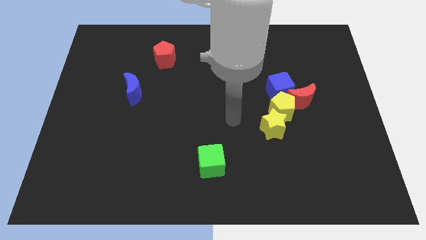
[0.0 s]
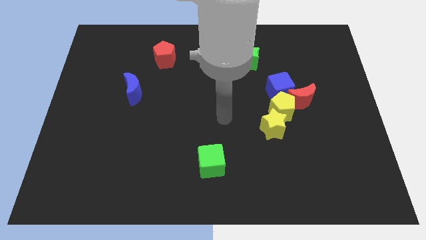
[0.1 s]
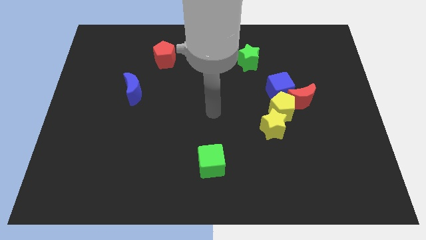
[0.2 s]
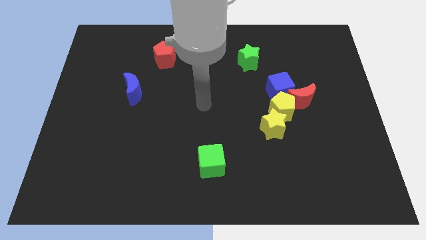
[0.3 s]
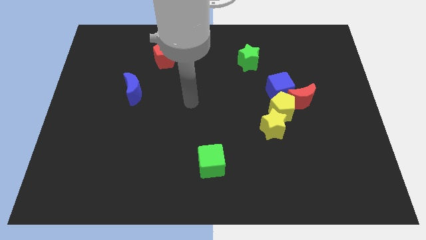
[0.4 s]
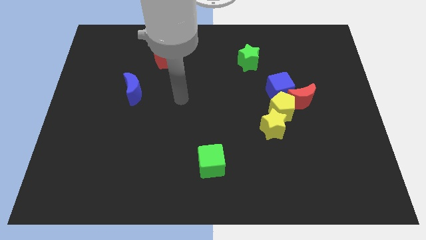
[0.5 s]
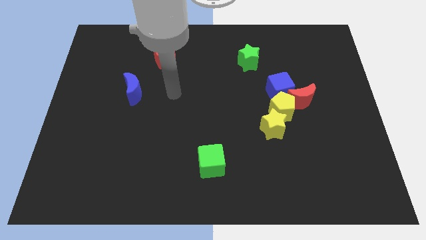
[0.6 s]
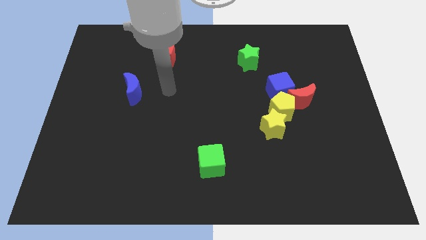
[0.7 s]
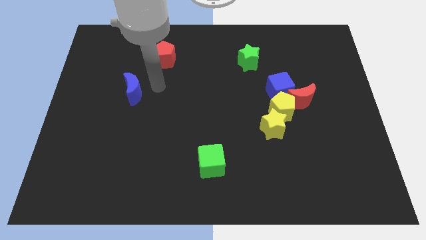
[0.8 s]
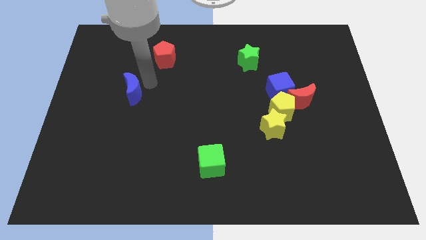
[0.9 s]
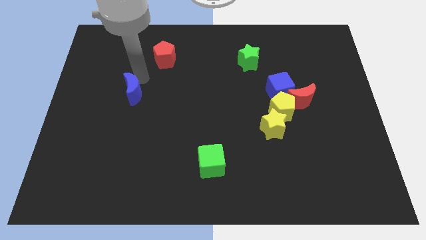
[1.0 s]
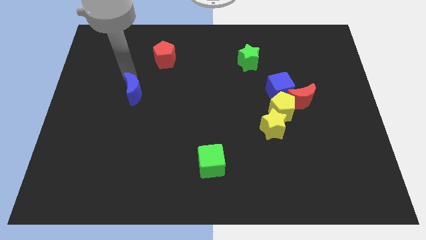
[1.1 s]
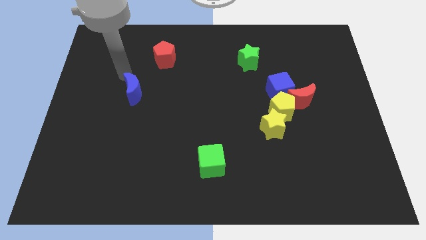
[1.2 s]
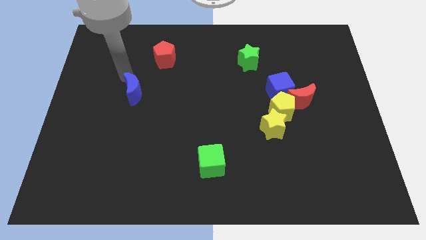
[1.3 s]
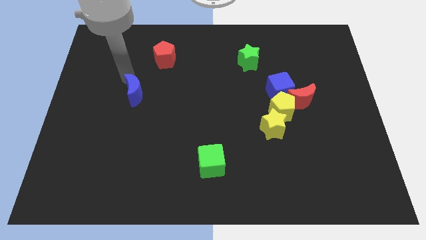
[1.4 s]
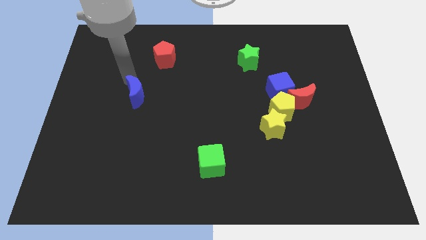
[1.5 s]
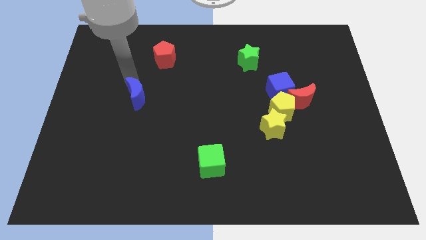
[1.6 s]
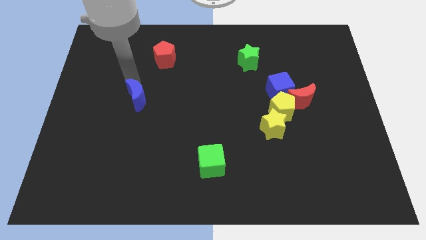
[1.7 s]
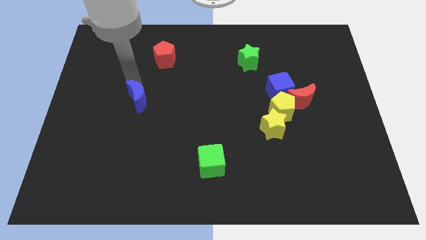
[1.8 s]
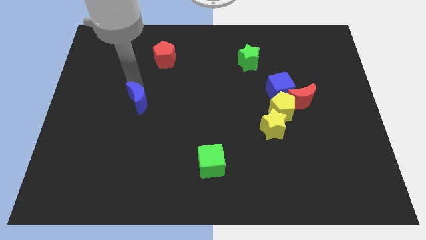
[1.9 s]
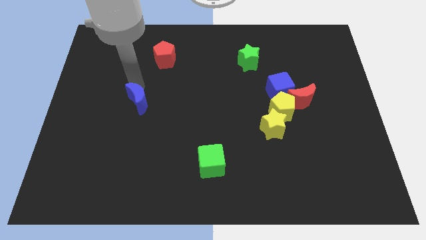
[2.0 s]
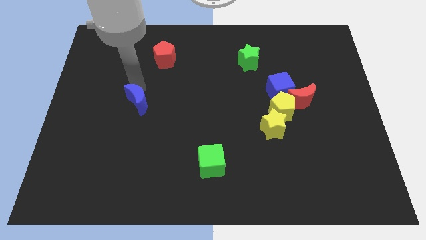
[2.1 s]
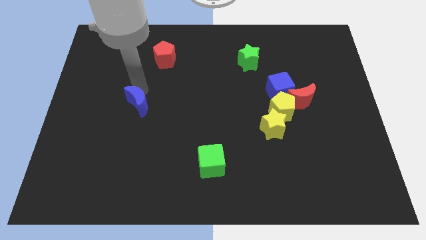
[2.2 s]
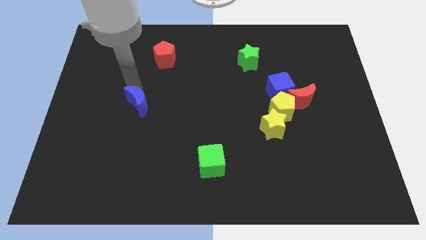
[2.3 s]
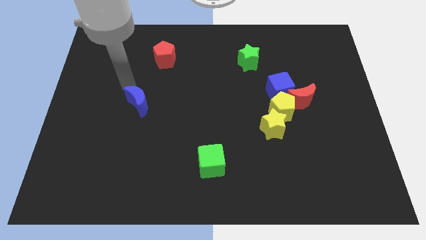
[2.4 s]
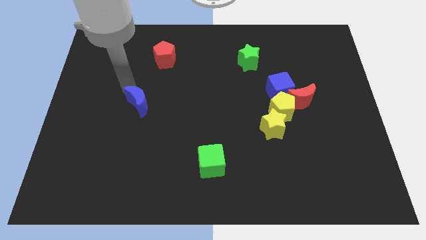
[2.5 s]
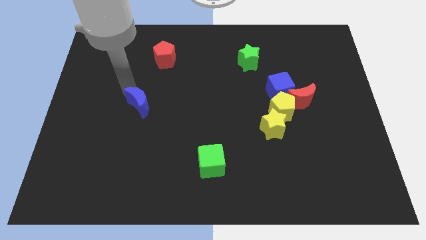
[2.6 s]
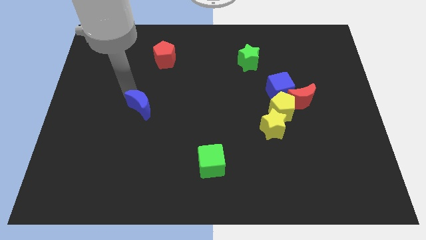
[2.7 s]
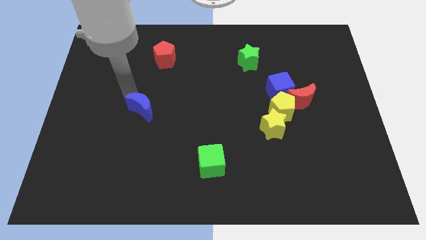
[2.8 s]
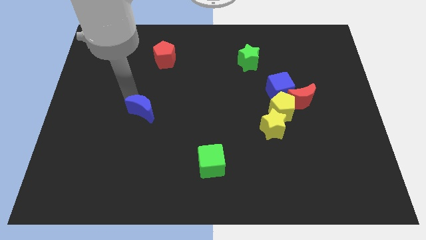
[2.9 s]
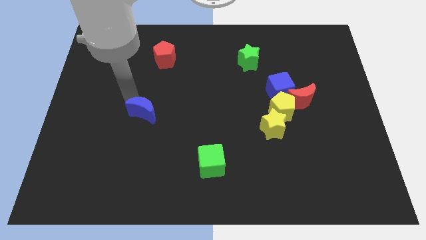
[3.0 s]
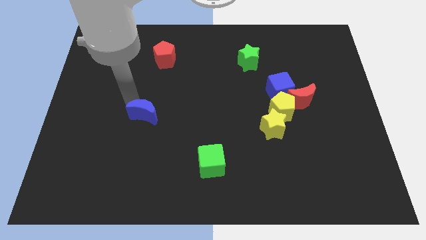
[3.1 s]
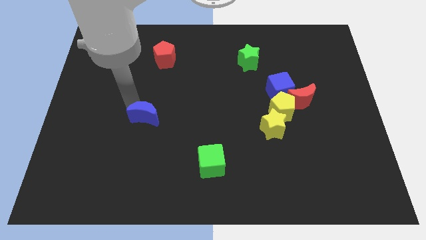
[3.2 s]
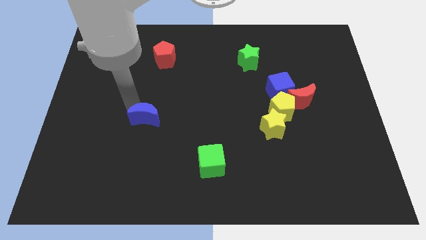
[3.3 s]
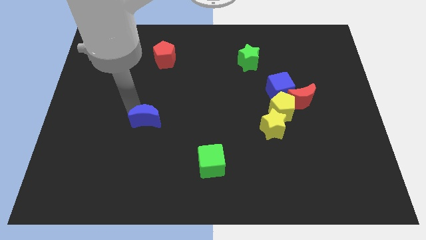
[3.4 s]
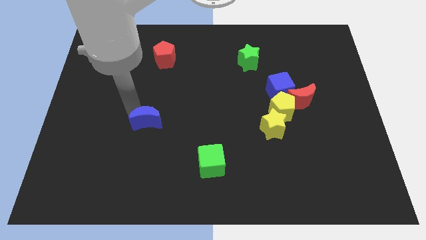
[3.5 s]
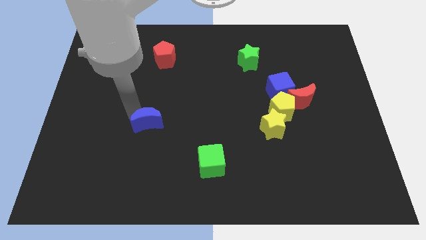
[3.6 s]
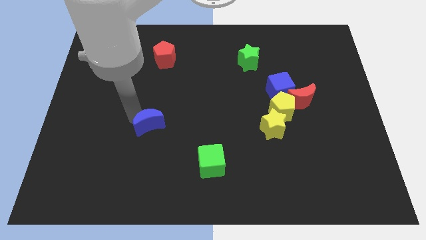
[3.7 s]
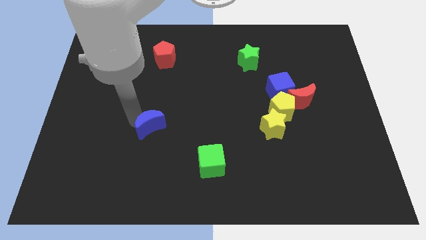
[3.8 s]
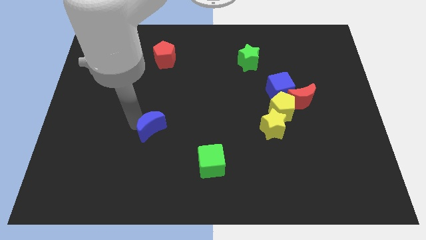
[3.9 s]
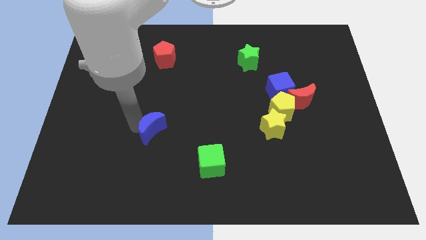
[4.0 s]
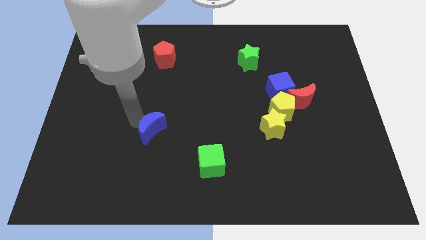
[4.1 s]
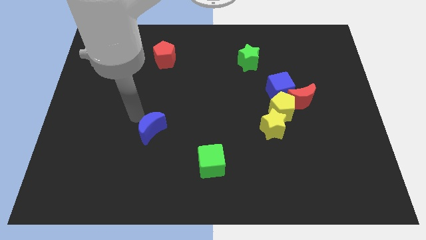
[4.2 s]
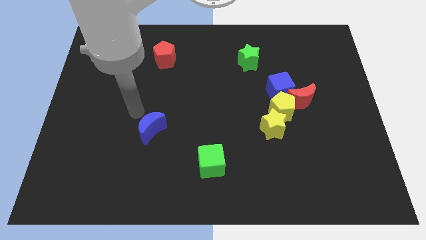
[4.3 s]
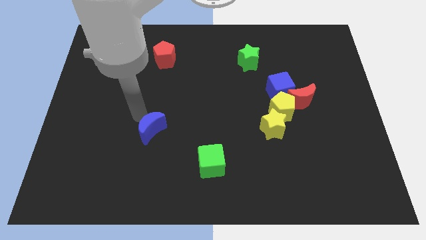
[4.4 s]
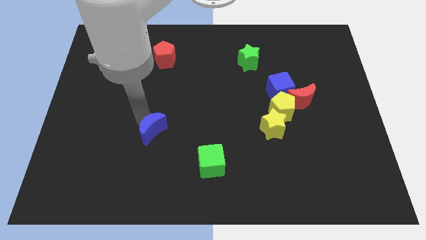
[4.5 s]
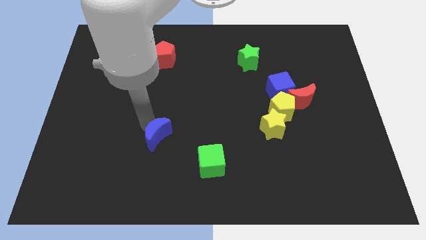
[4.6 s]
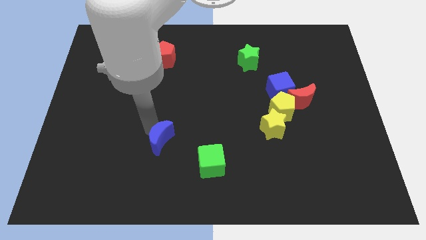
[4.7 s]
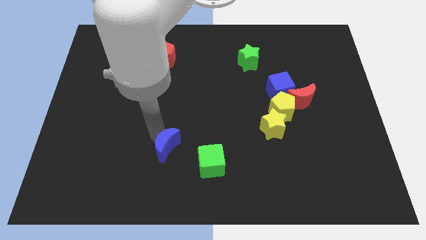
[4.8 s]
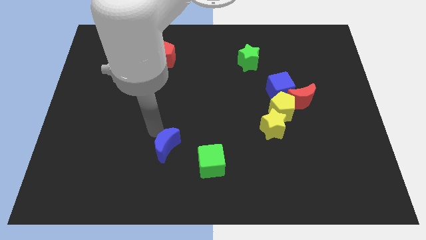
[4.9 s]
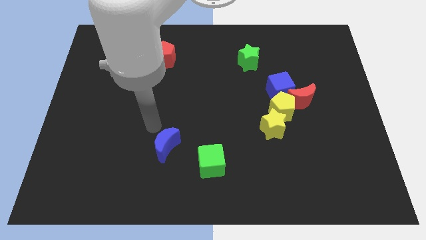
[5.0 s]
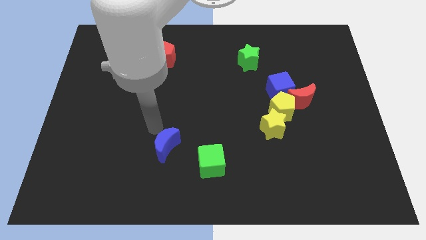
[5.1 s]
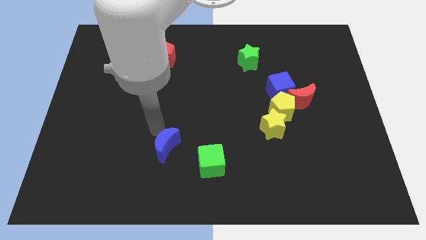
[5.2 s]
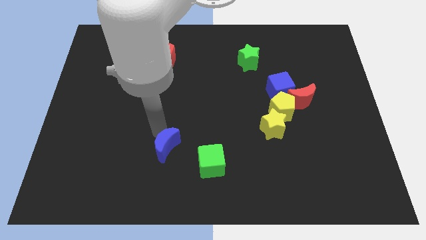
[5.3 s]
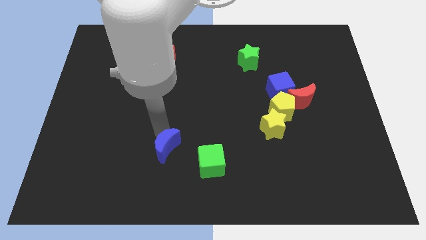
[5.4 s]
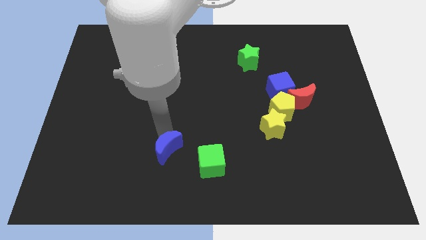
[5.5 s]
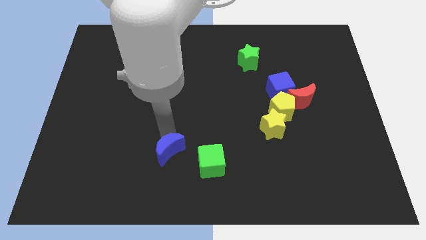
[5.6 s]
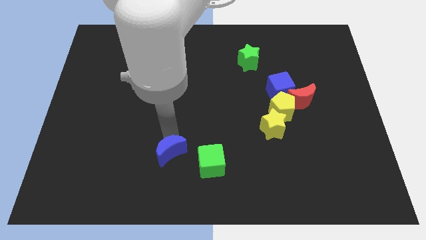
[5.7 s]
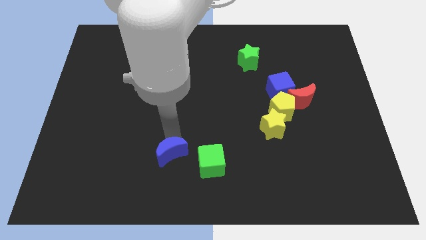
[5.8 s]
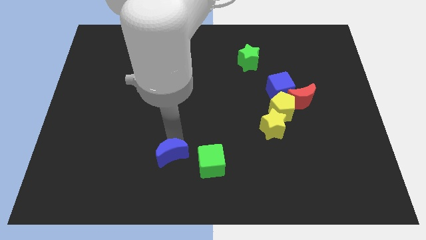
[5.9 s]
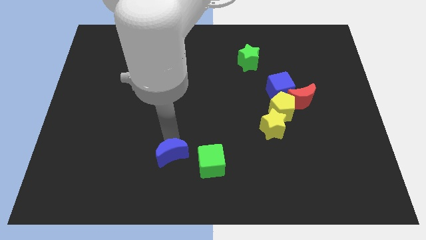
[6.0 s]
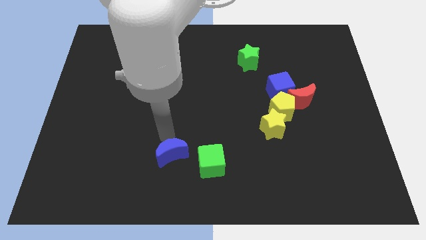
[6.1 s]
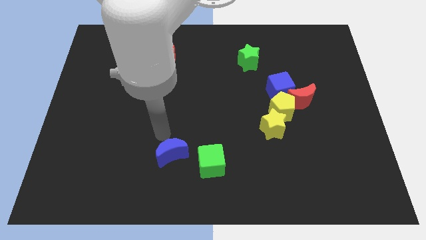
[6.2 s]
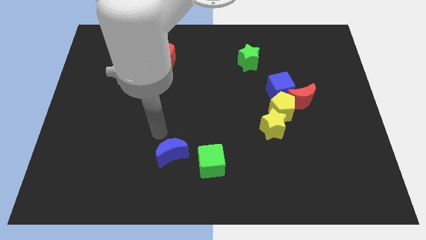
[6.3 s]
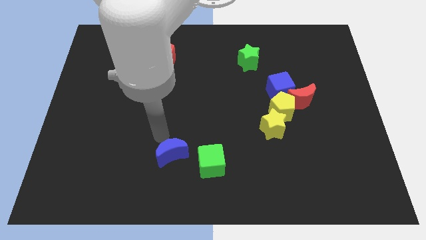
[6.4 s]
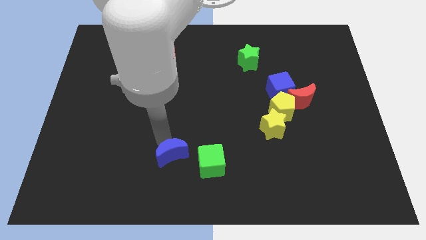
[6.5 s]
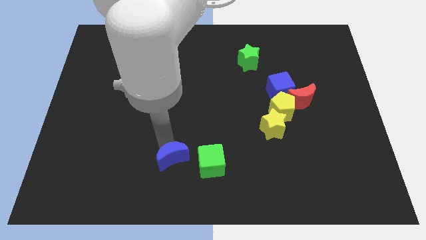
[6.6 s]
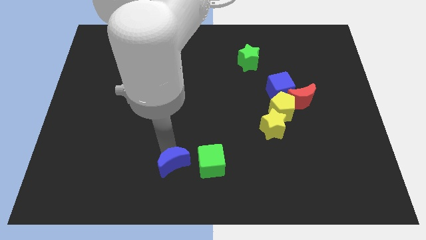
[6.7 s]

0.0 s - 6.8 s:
slide the blue moon to the bottom

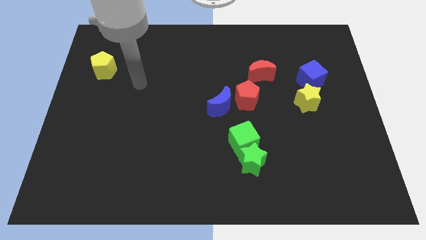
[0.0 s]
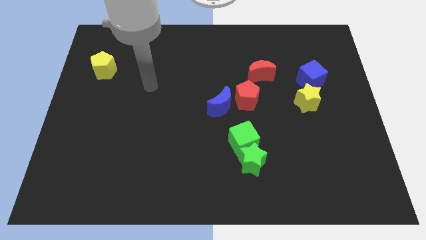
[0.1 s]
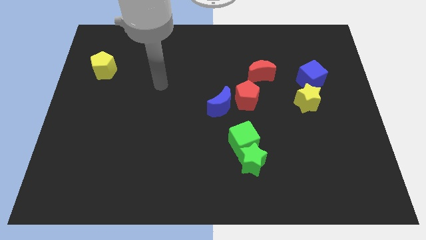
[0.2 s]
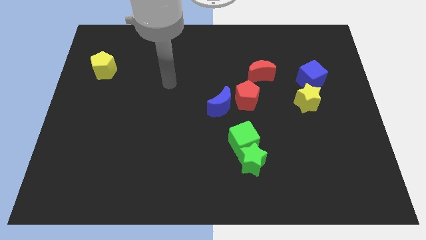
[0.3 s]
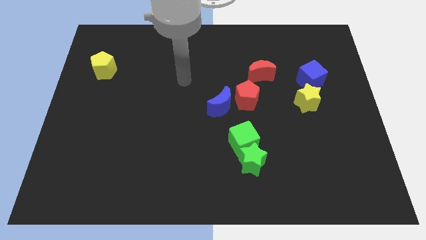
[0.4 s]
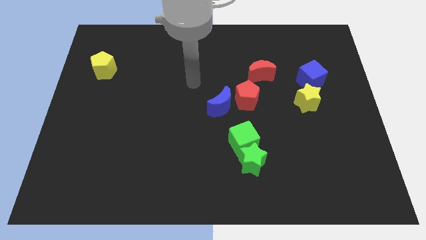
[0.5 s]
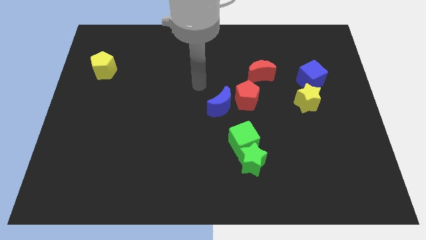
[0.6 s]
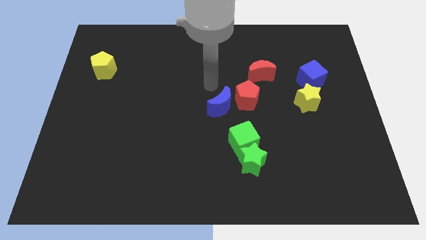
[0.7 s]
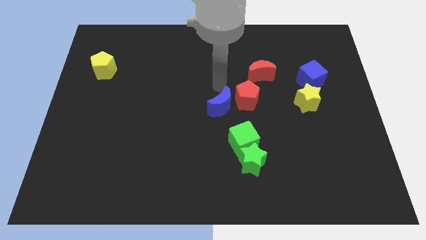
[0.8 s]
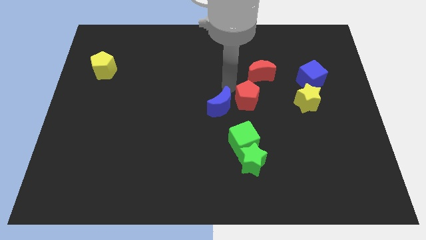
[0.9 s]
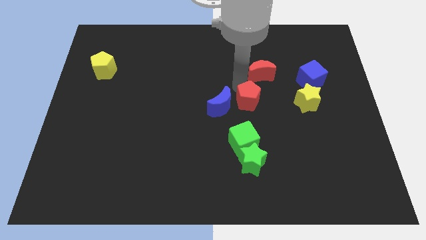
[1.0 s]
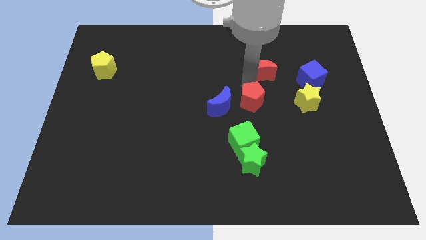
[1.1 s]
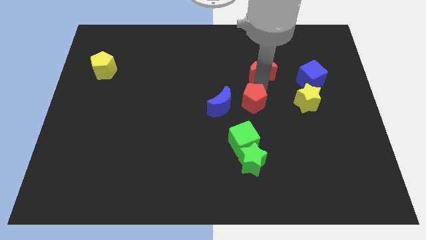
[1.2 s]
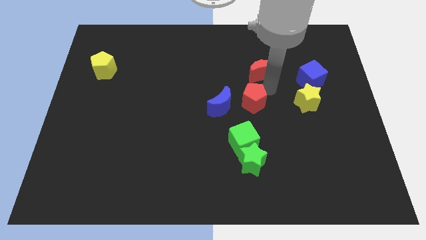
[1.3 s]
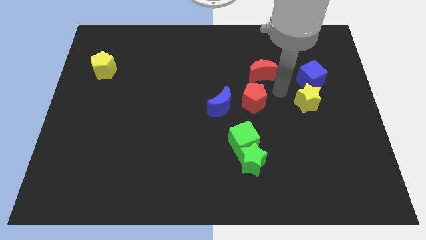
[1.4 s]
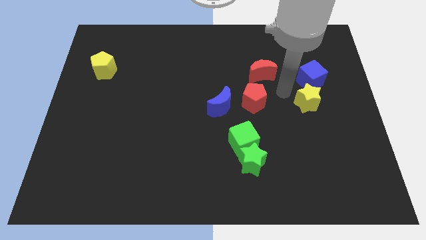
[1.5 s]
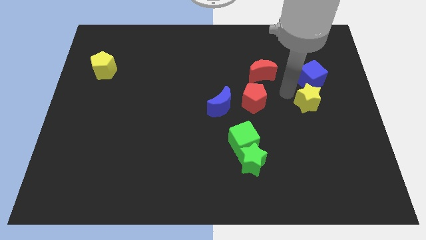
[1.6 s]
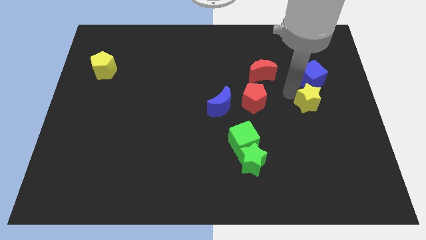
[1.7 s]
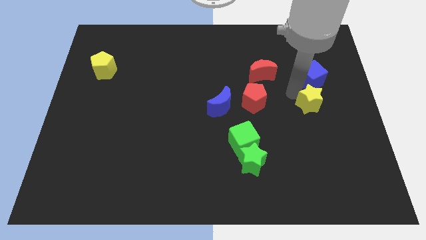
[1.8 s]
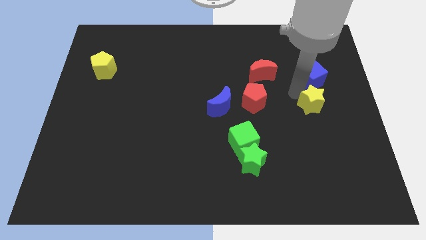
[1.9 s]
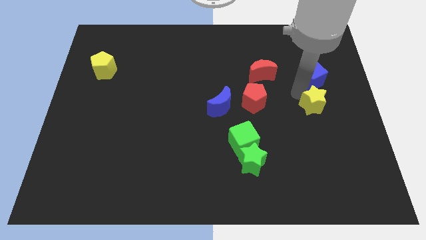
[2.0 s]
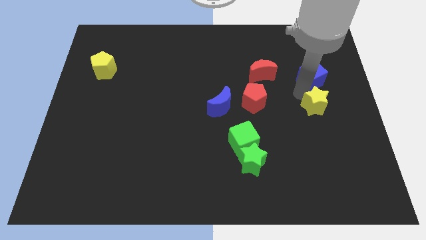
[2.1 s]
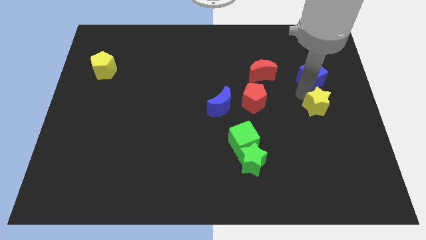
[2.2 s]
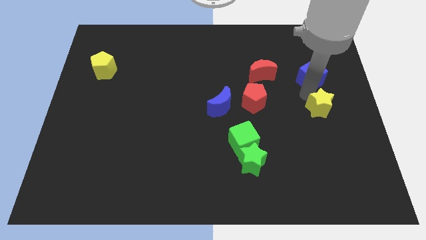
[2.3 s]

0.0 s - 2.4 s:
push the yellow star to the right side of the board
